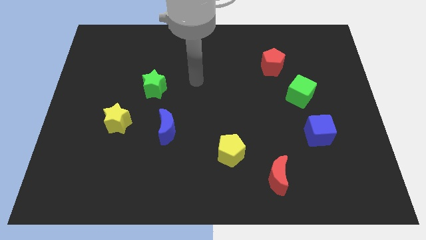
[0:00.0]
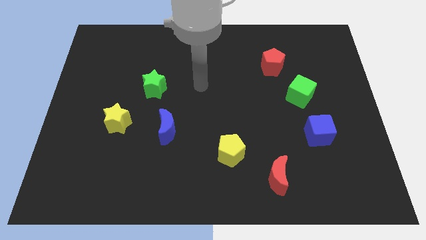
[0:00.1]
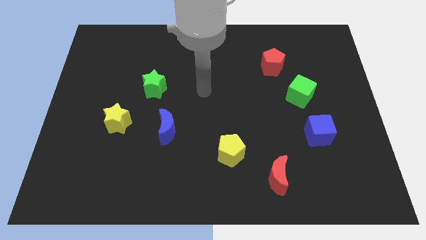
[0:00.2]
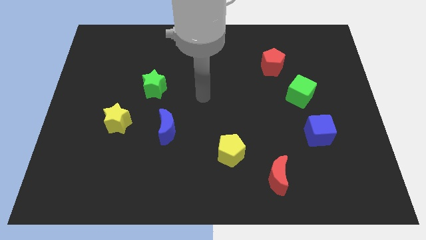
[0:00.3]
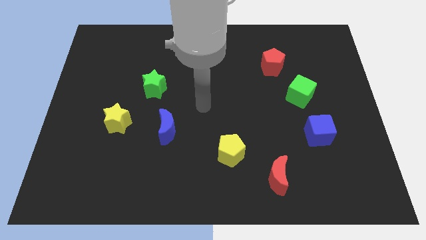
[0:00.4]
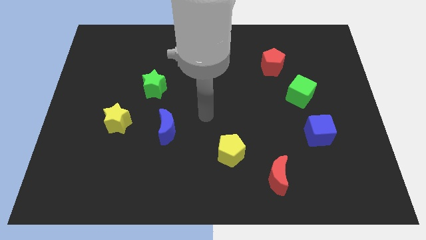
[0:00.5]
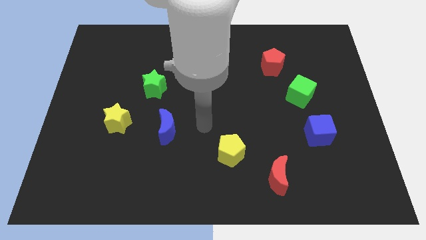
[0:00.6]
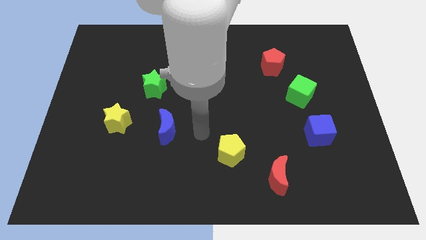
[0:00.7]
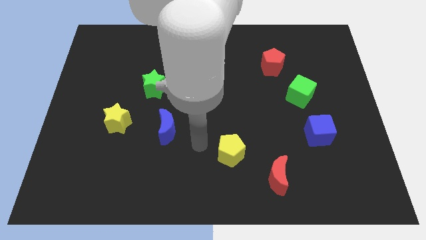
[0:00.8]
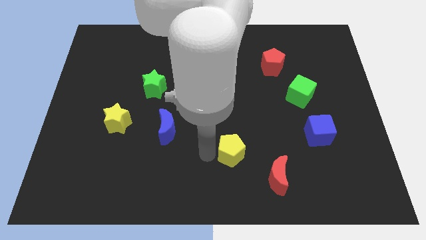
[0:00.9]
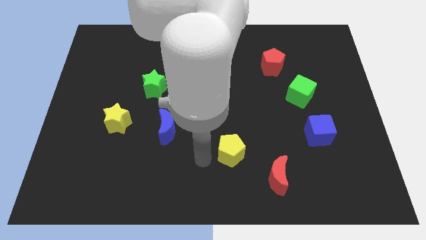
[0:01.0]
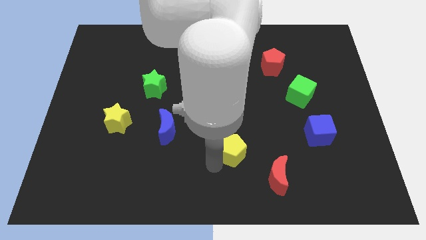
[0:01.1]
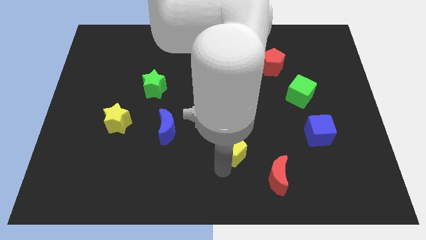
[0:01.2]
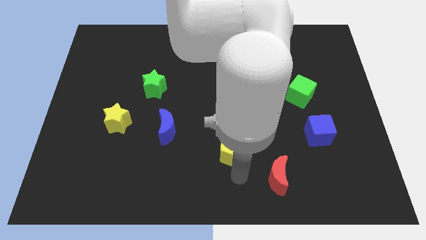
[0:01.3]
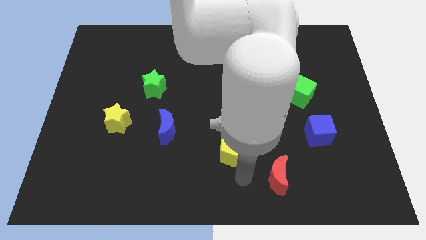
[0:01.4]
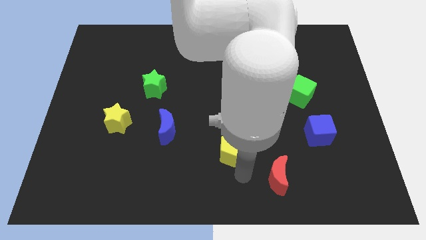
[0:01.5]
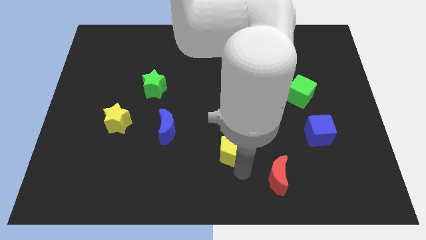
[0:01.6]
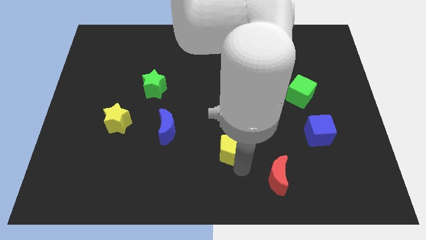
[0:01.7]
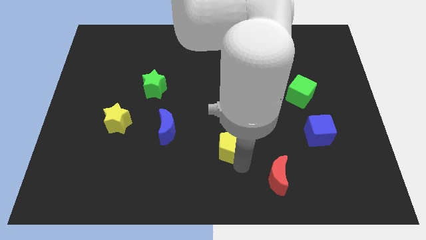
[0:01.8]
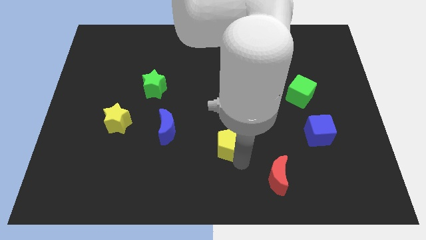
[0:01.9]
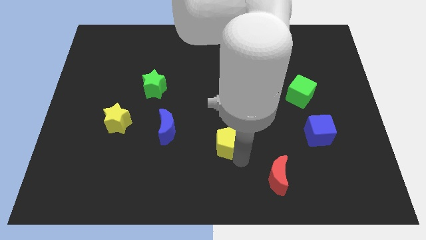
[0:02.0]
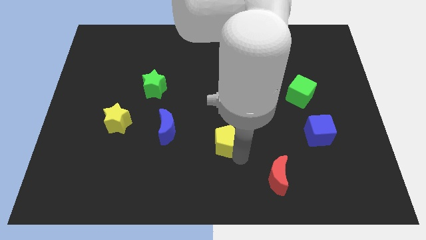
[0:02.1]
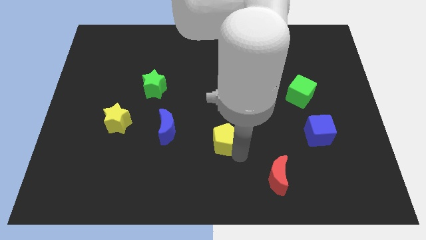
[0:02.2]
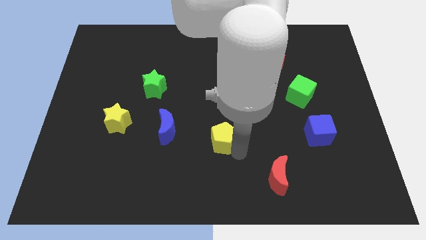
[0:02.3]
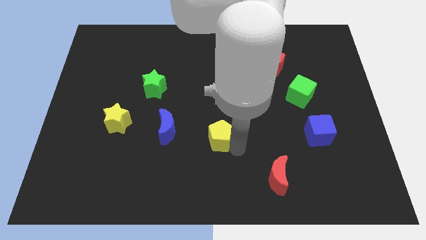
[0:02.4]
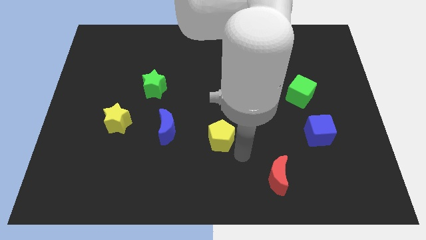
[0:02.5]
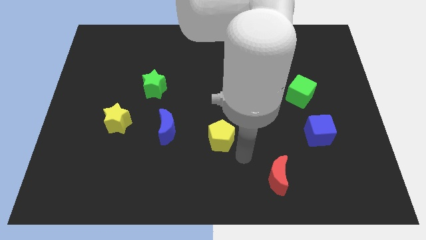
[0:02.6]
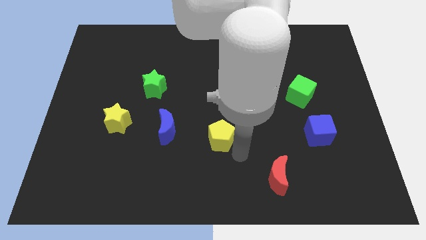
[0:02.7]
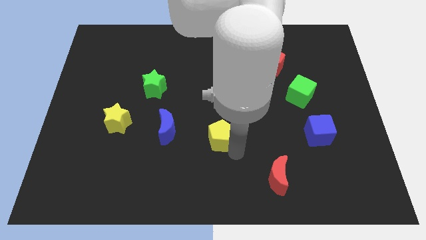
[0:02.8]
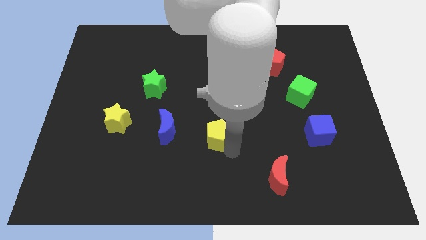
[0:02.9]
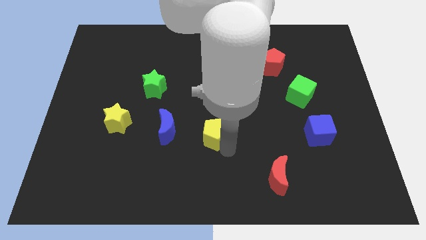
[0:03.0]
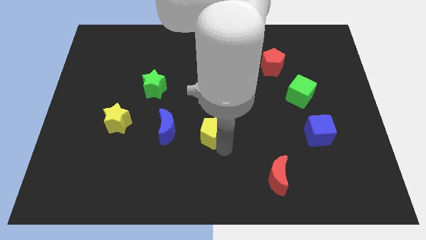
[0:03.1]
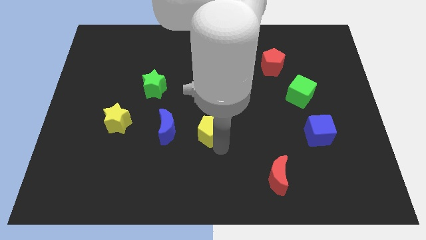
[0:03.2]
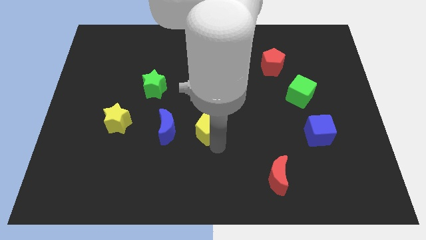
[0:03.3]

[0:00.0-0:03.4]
slightly push the yellow pentagon up and then left

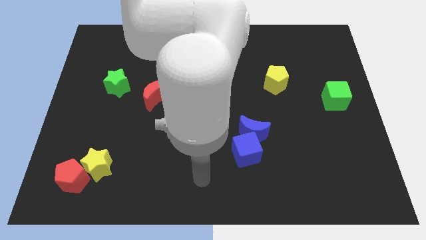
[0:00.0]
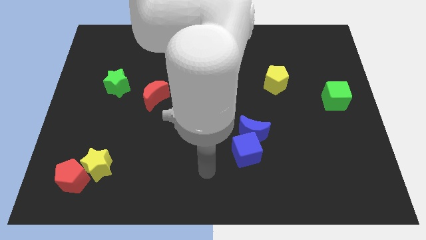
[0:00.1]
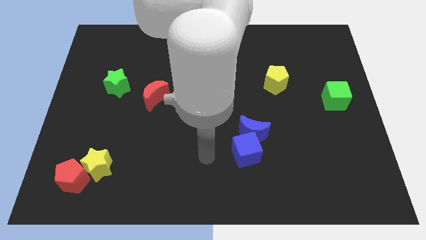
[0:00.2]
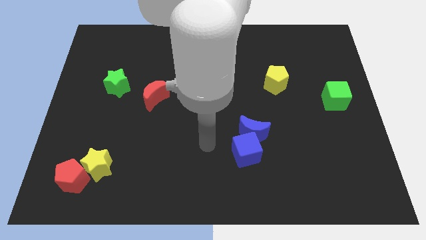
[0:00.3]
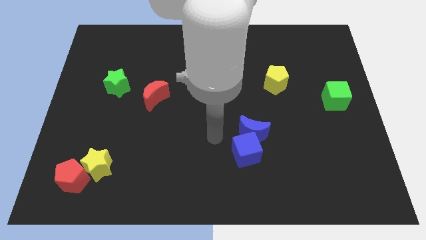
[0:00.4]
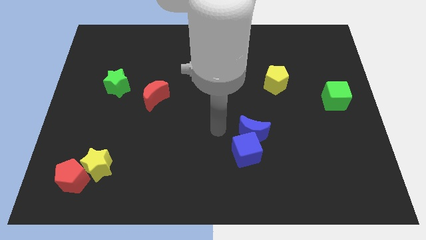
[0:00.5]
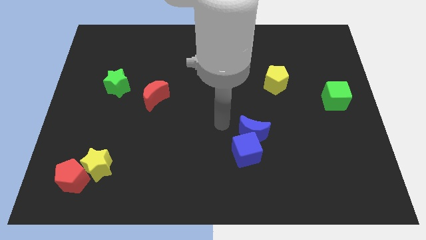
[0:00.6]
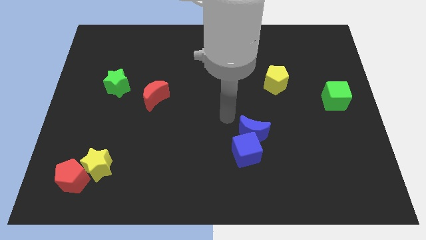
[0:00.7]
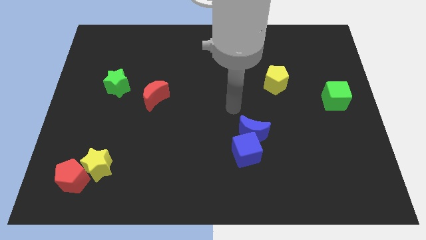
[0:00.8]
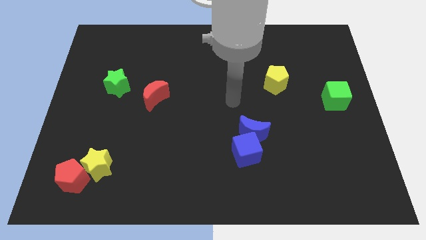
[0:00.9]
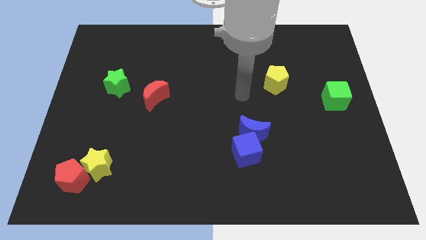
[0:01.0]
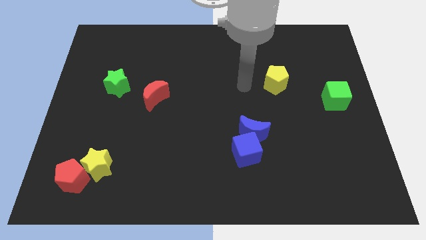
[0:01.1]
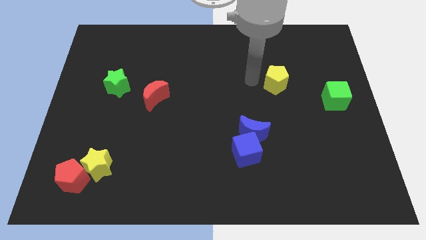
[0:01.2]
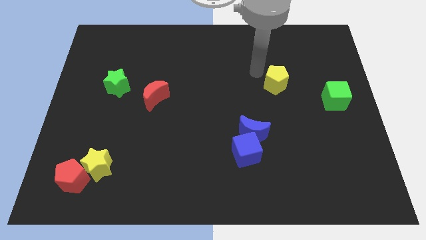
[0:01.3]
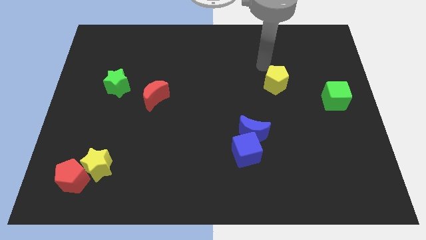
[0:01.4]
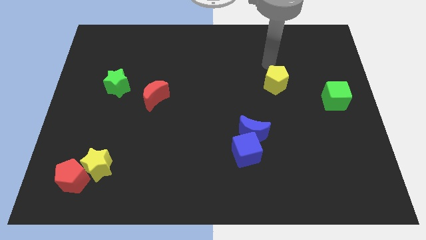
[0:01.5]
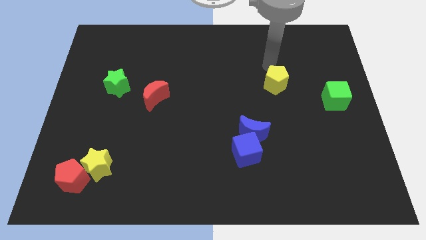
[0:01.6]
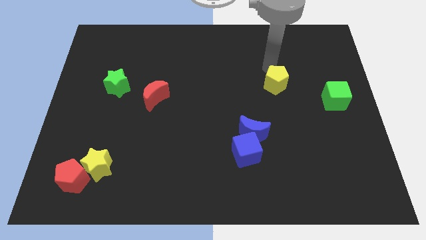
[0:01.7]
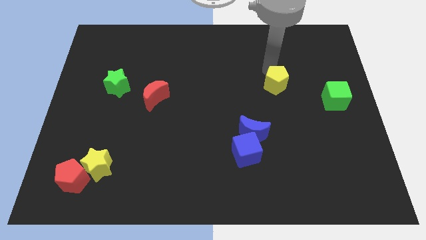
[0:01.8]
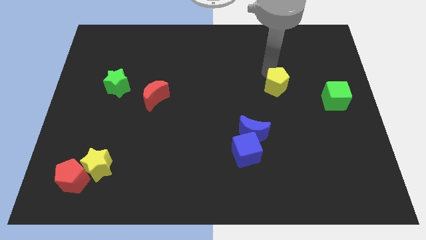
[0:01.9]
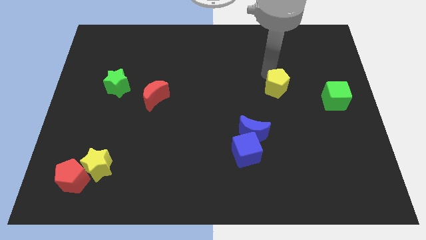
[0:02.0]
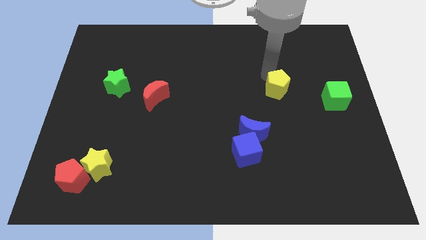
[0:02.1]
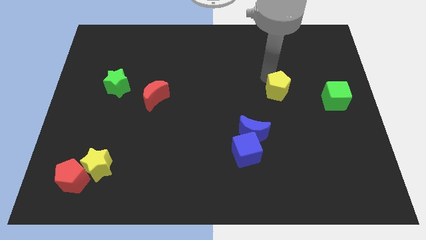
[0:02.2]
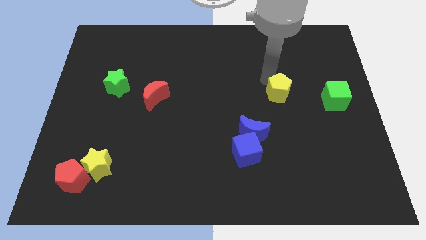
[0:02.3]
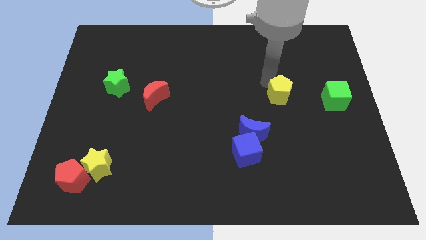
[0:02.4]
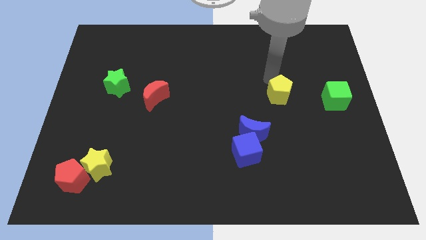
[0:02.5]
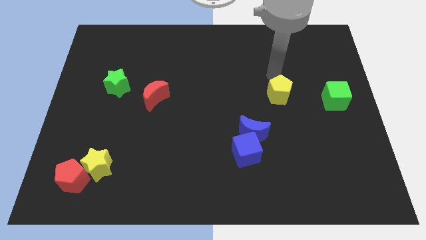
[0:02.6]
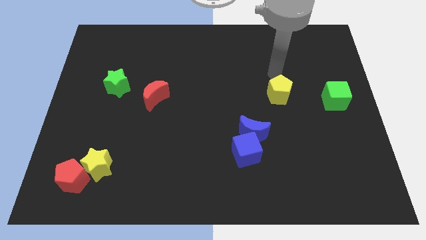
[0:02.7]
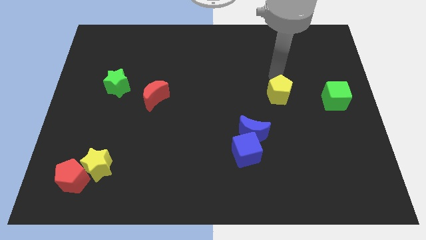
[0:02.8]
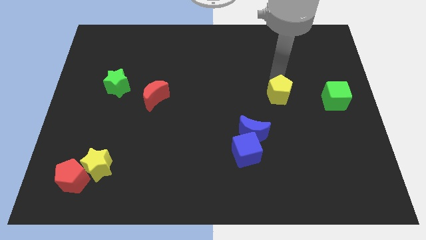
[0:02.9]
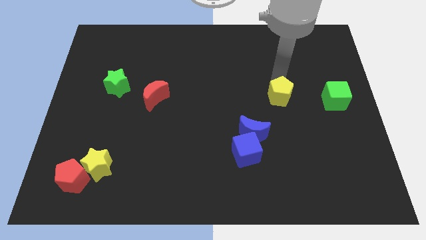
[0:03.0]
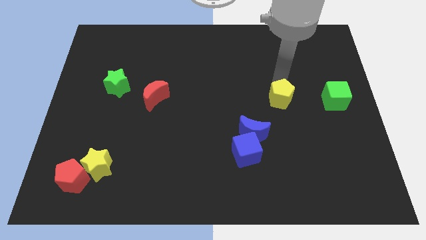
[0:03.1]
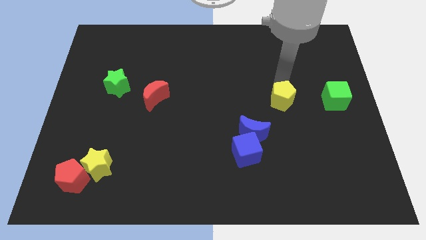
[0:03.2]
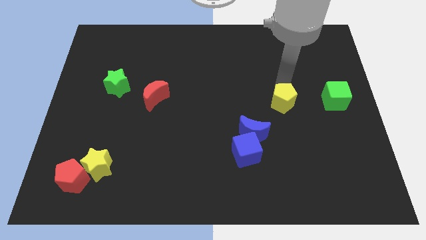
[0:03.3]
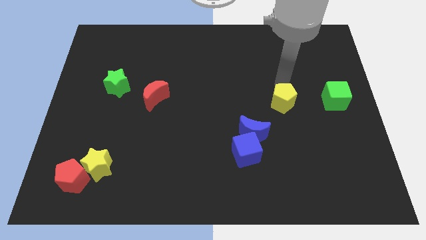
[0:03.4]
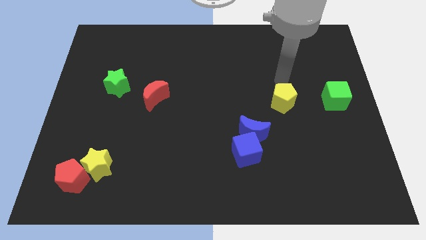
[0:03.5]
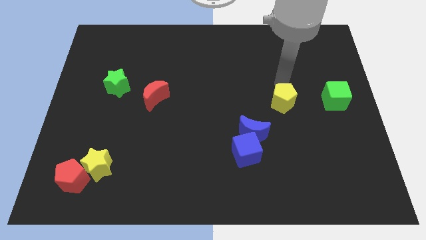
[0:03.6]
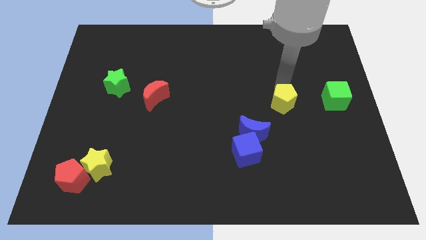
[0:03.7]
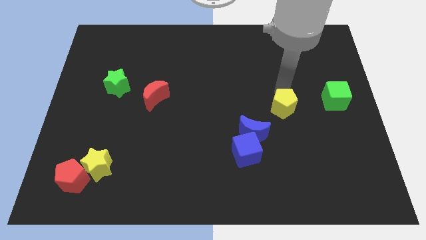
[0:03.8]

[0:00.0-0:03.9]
move the yellow pentagon down somewhat

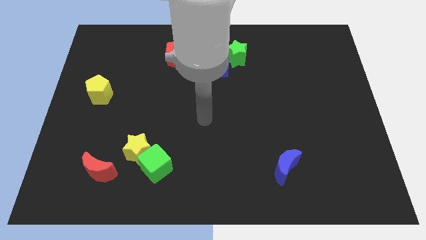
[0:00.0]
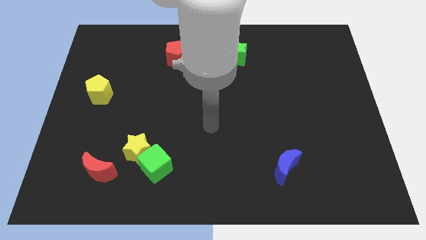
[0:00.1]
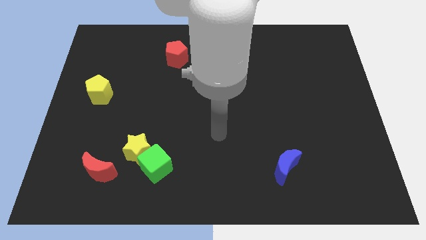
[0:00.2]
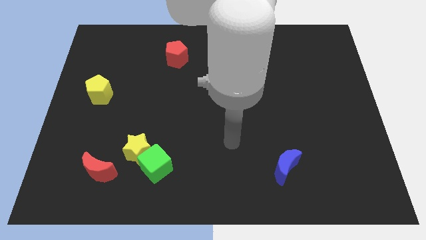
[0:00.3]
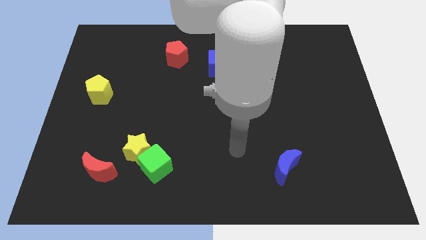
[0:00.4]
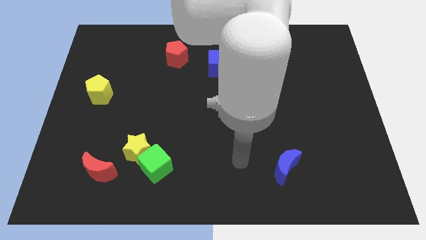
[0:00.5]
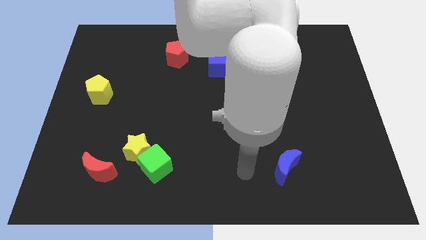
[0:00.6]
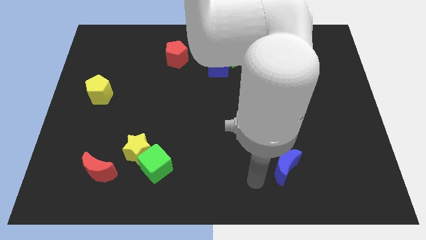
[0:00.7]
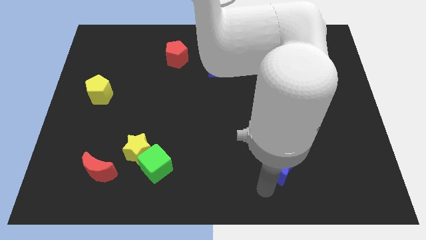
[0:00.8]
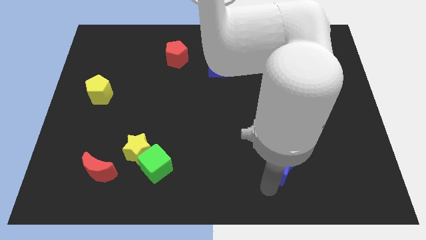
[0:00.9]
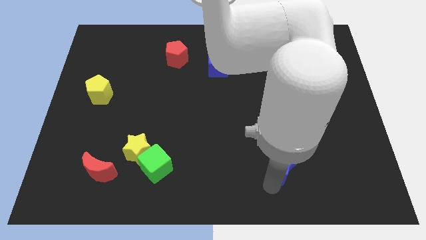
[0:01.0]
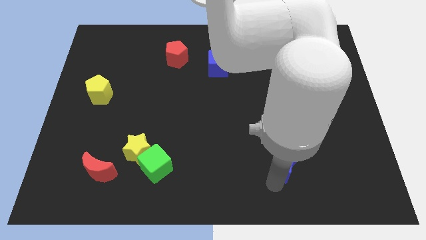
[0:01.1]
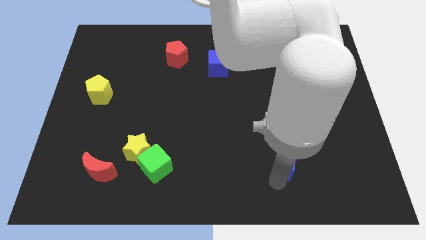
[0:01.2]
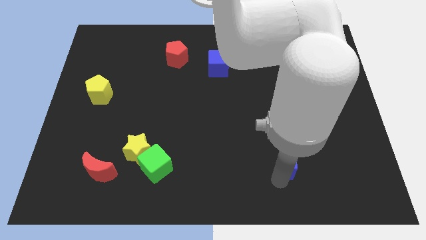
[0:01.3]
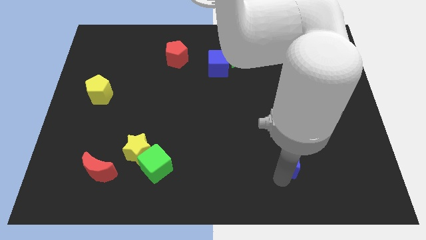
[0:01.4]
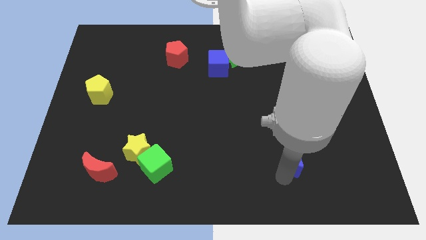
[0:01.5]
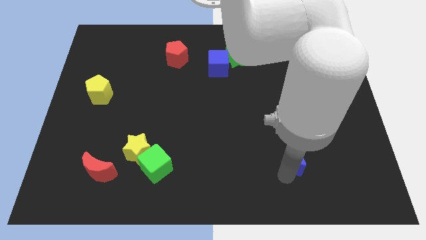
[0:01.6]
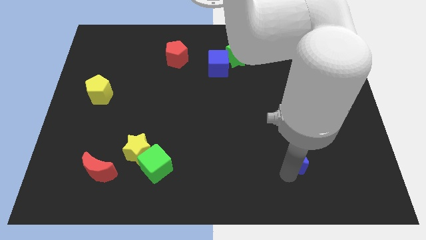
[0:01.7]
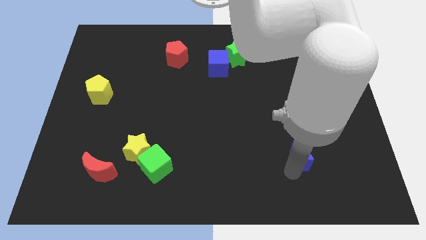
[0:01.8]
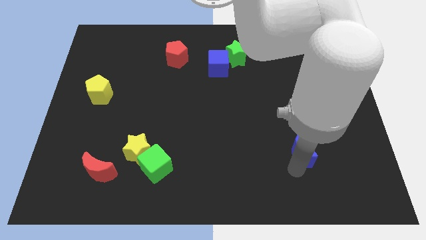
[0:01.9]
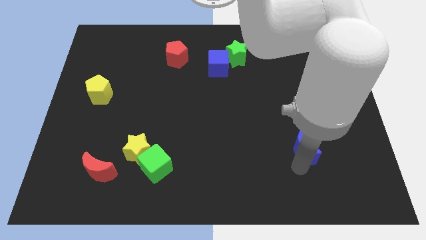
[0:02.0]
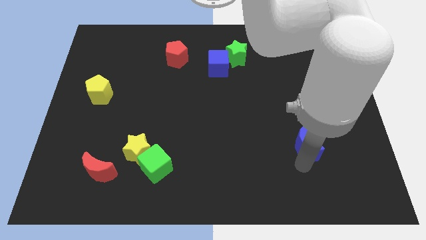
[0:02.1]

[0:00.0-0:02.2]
slightly slide the blue moon upwards and right
